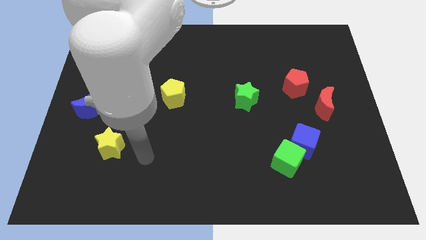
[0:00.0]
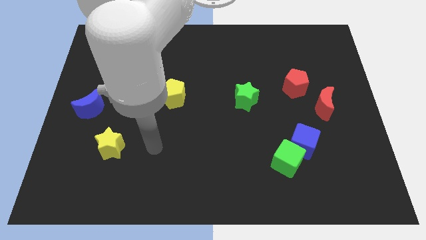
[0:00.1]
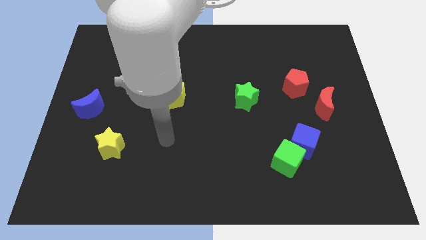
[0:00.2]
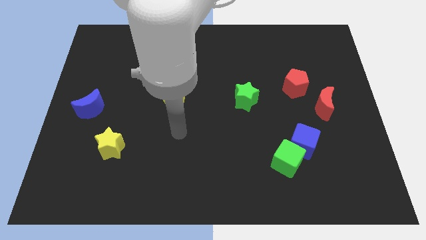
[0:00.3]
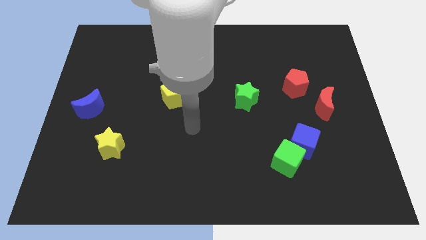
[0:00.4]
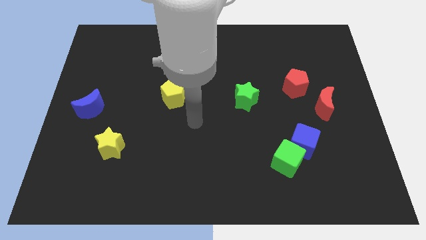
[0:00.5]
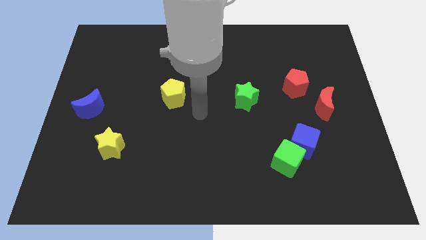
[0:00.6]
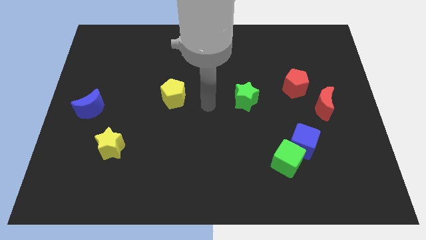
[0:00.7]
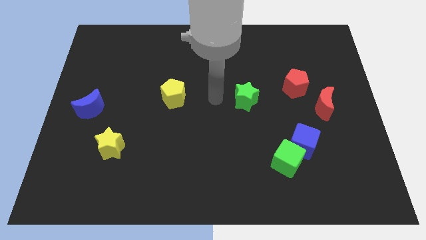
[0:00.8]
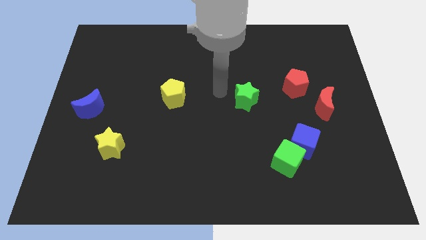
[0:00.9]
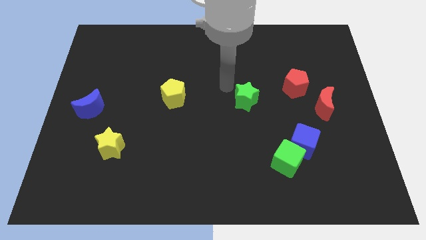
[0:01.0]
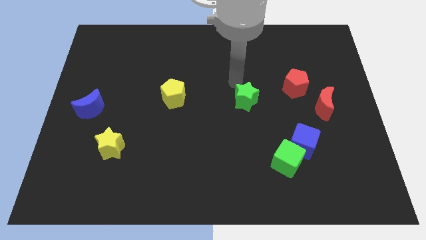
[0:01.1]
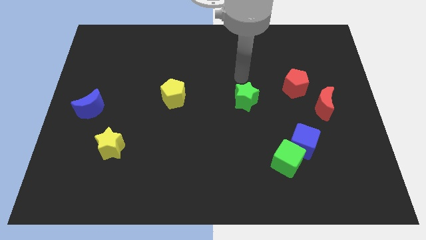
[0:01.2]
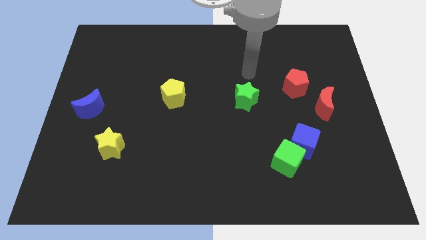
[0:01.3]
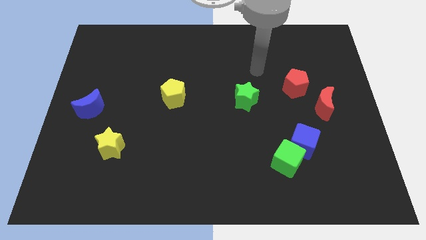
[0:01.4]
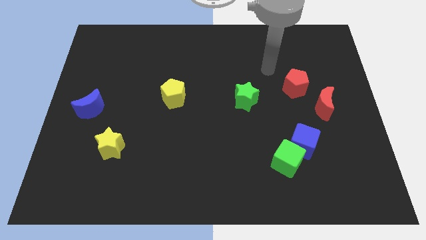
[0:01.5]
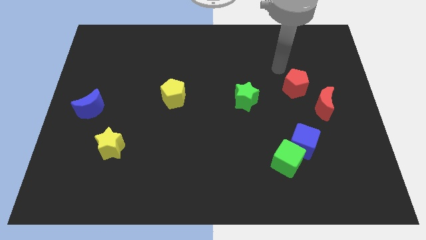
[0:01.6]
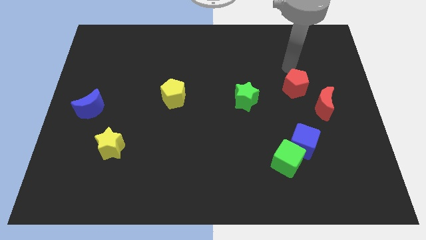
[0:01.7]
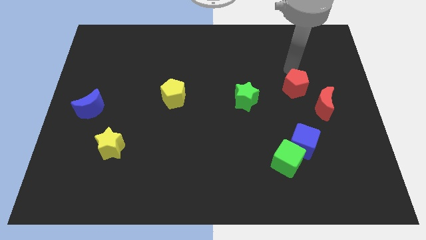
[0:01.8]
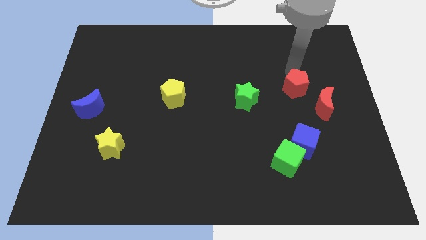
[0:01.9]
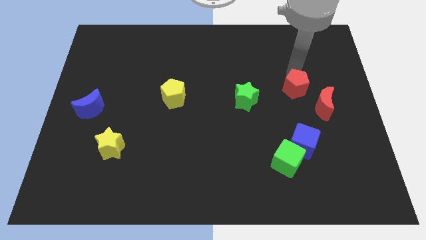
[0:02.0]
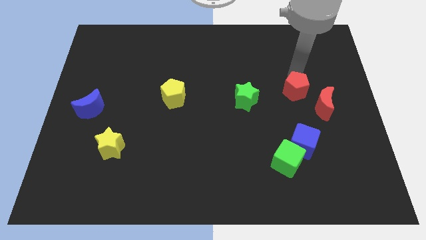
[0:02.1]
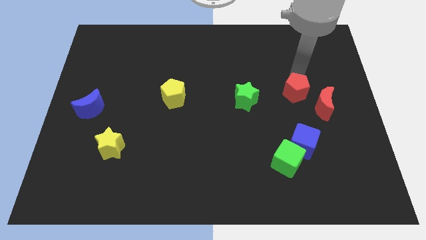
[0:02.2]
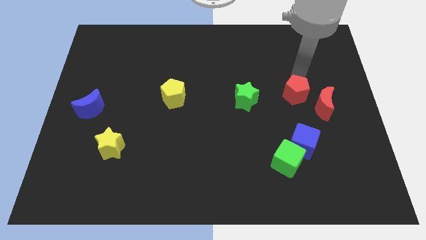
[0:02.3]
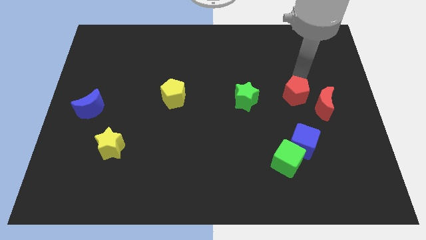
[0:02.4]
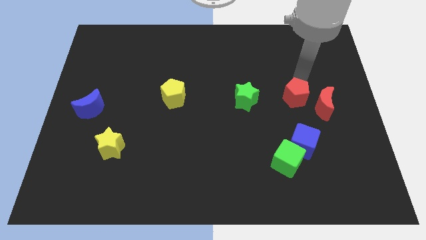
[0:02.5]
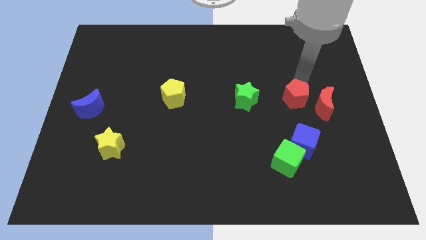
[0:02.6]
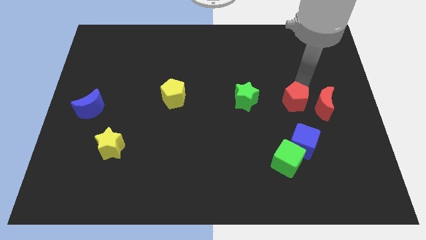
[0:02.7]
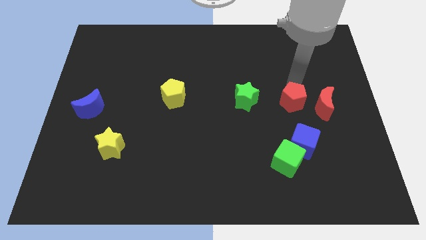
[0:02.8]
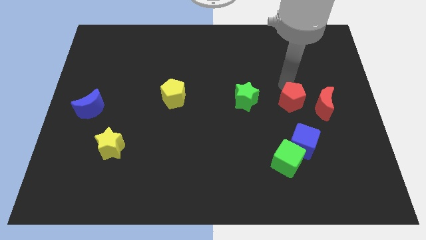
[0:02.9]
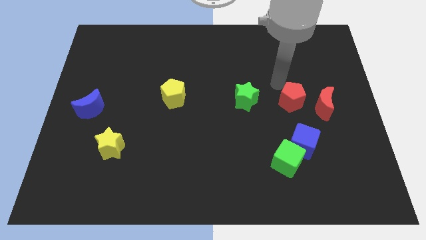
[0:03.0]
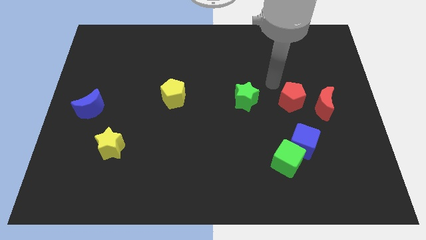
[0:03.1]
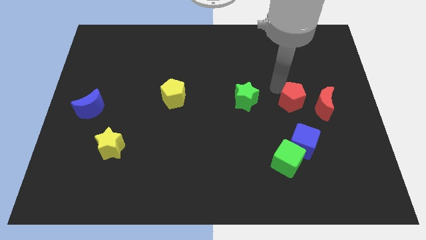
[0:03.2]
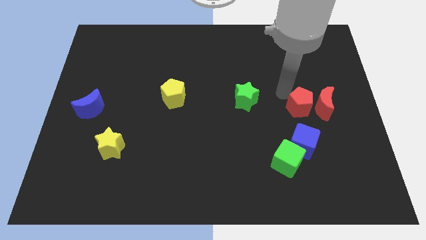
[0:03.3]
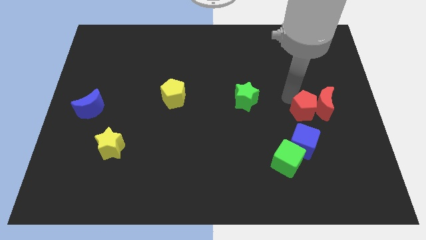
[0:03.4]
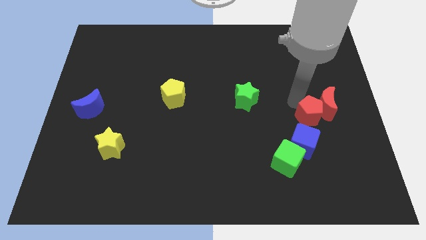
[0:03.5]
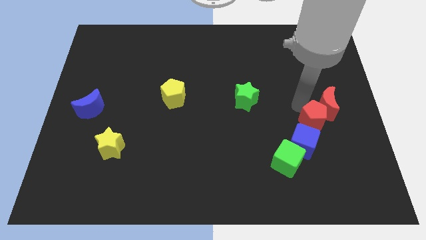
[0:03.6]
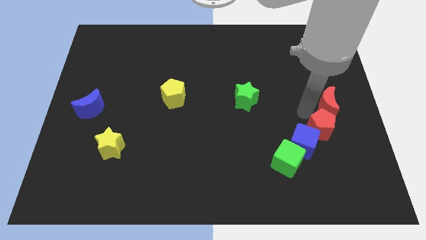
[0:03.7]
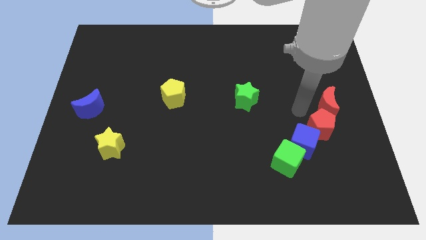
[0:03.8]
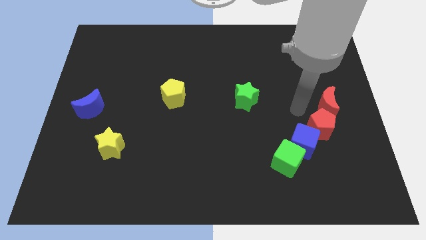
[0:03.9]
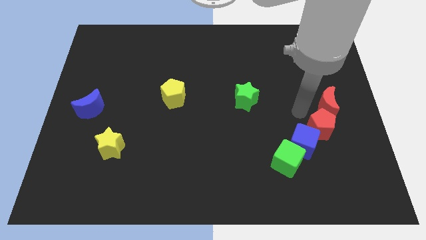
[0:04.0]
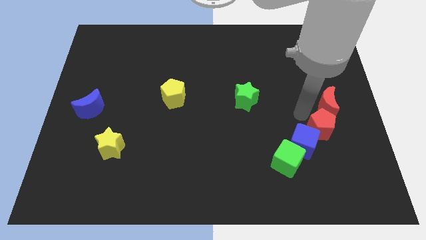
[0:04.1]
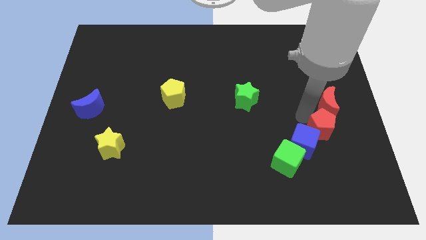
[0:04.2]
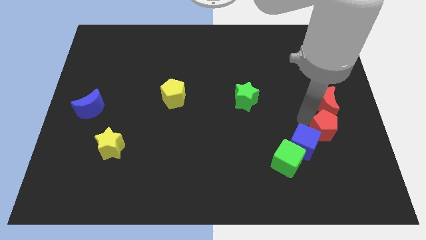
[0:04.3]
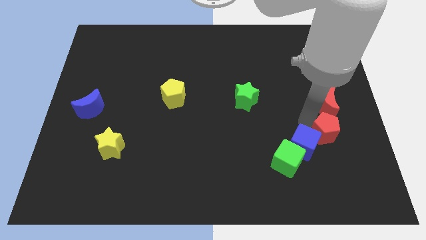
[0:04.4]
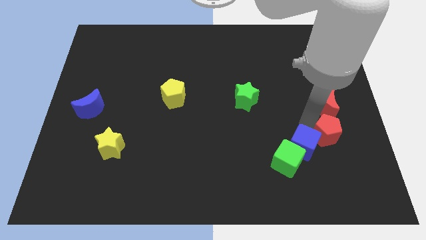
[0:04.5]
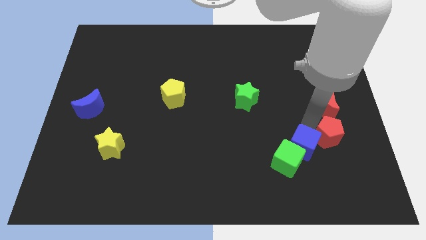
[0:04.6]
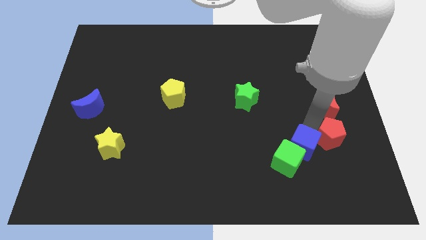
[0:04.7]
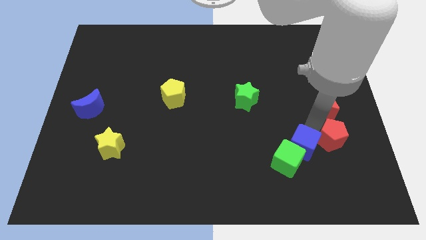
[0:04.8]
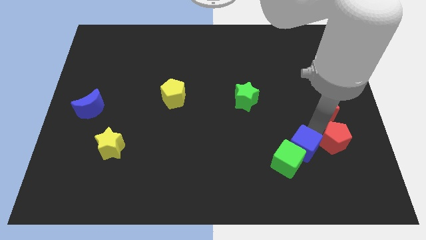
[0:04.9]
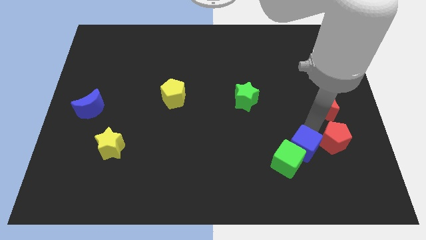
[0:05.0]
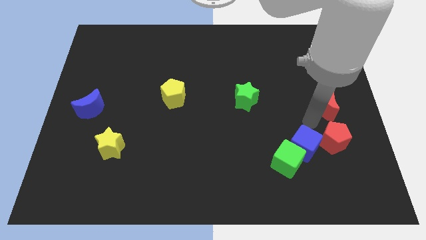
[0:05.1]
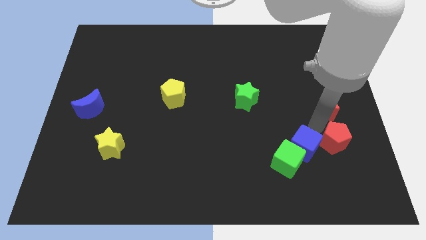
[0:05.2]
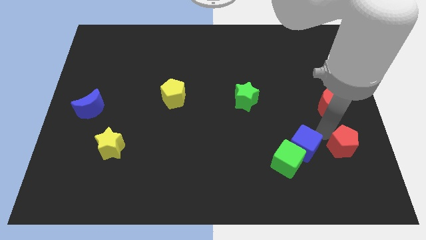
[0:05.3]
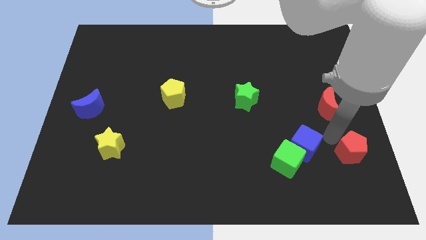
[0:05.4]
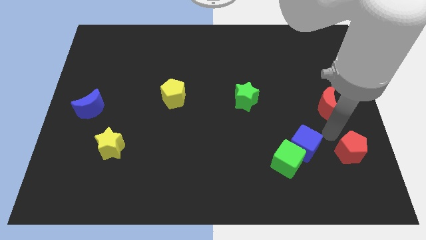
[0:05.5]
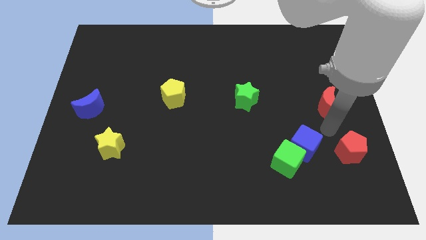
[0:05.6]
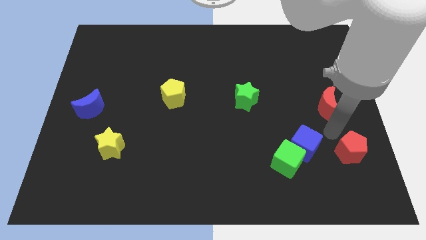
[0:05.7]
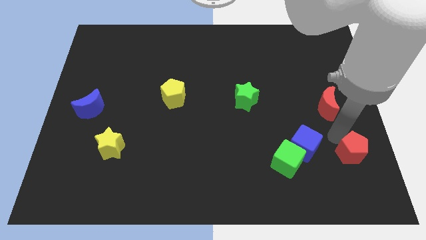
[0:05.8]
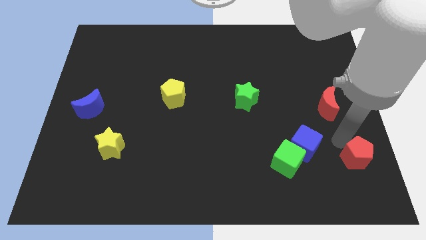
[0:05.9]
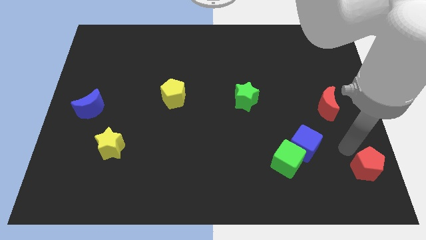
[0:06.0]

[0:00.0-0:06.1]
put the red pentagon to the bottom right corner
